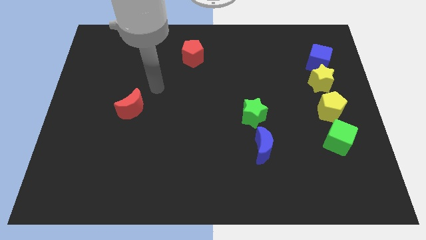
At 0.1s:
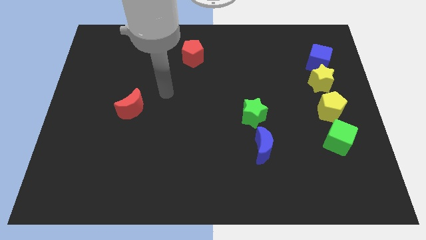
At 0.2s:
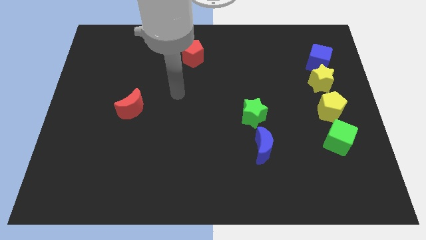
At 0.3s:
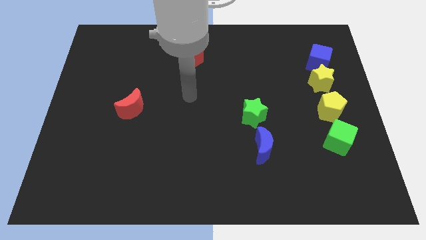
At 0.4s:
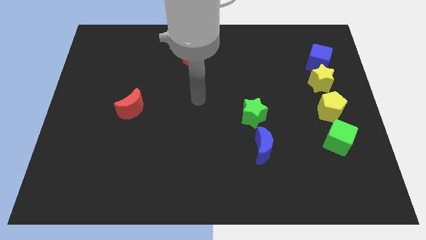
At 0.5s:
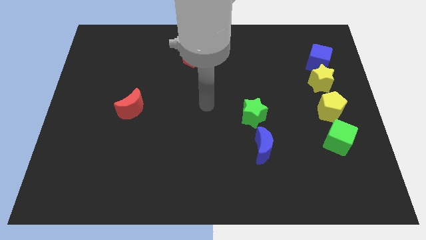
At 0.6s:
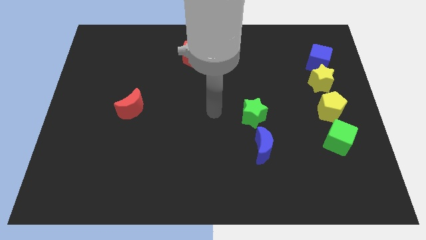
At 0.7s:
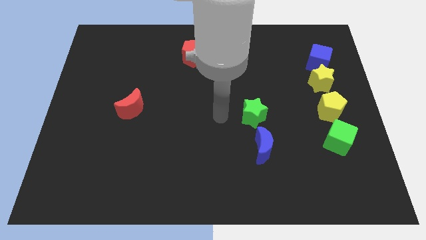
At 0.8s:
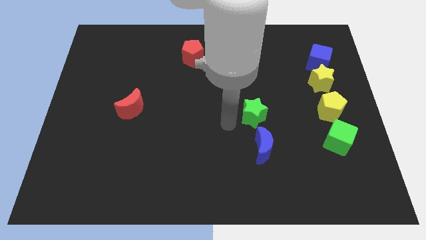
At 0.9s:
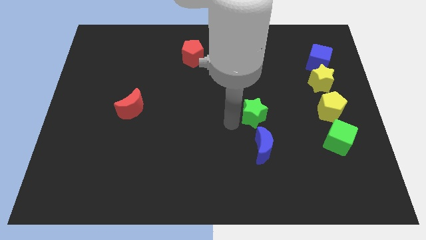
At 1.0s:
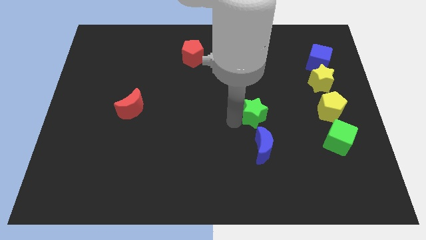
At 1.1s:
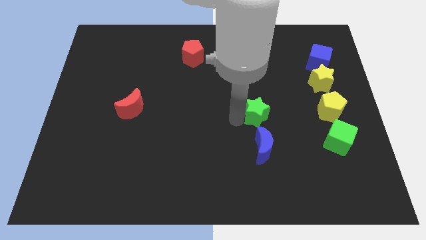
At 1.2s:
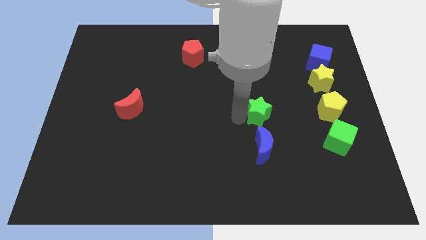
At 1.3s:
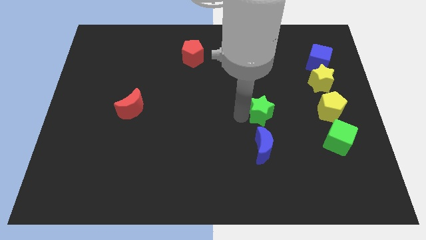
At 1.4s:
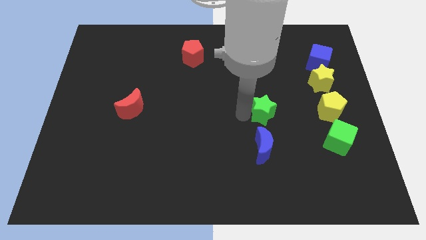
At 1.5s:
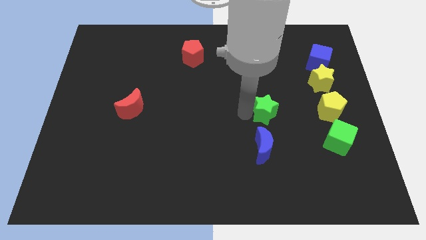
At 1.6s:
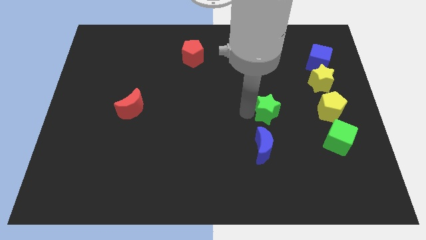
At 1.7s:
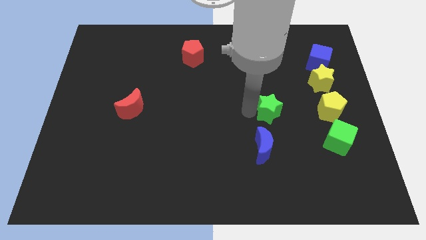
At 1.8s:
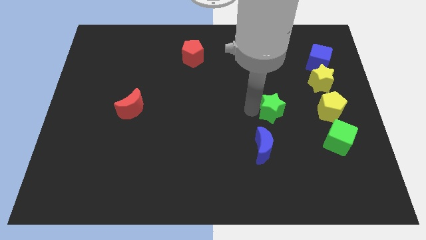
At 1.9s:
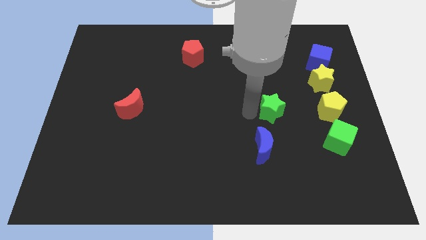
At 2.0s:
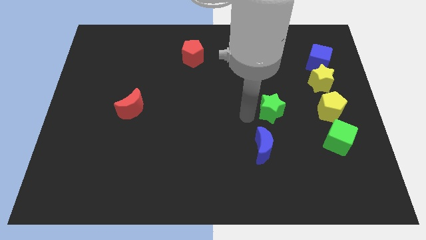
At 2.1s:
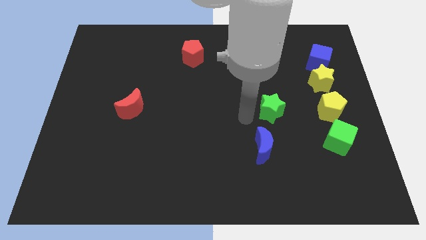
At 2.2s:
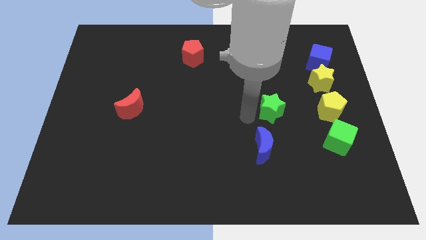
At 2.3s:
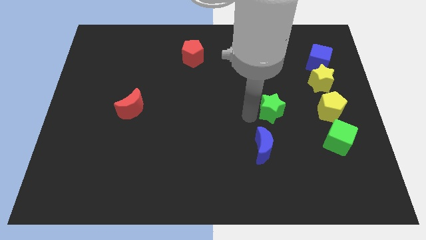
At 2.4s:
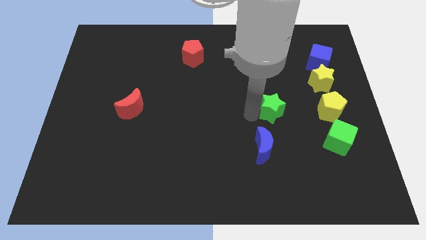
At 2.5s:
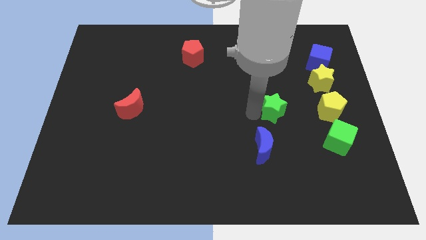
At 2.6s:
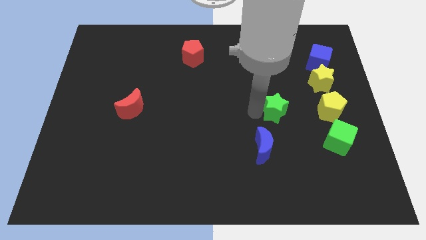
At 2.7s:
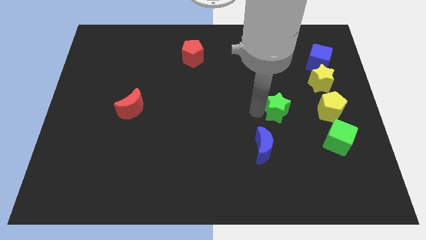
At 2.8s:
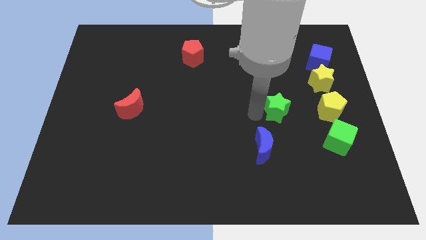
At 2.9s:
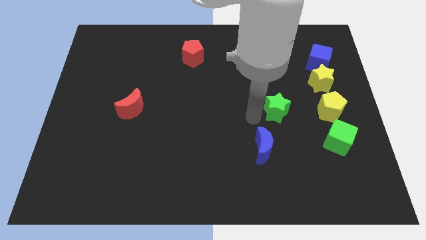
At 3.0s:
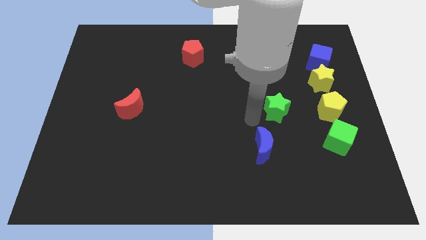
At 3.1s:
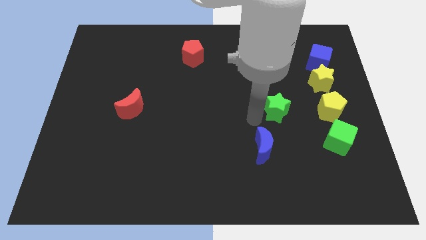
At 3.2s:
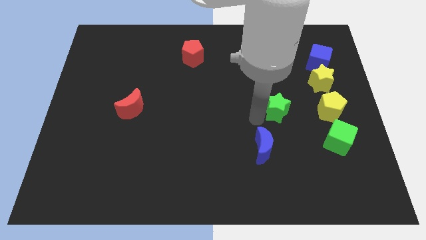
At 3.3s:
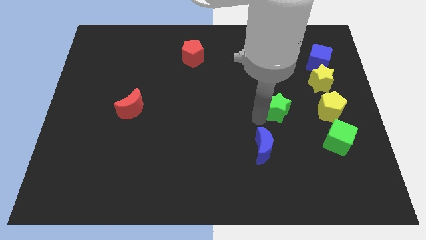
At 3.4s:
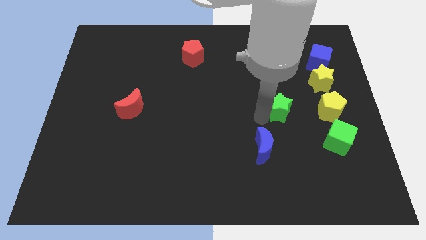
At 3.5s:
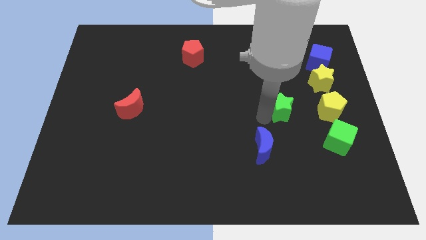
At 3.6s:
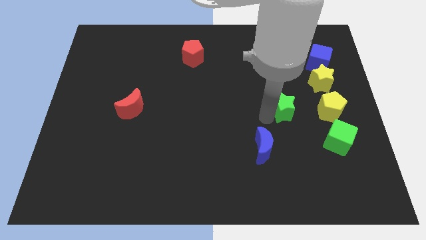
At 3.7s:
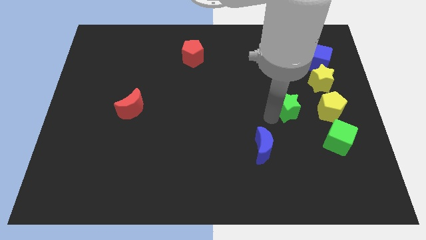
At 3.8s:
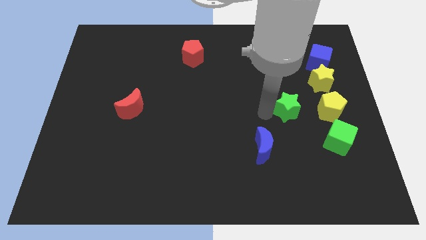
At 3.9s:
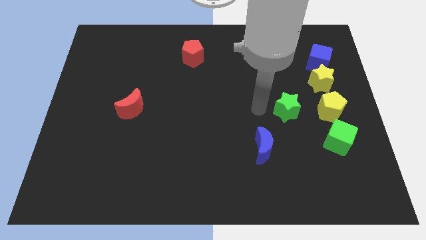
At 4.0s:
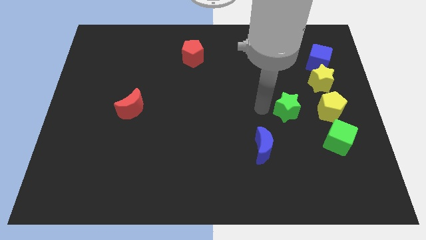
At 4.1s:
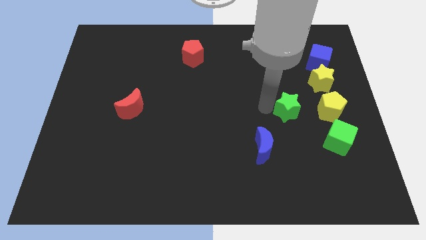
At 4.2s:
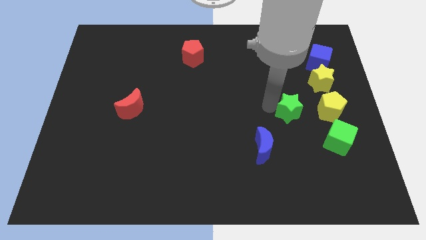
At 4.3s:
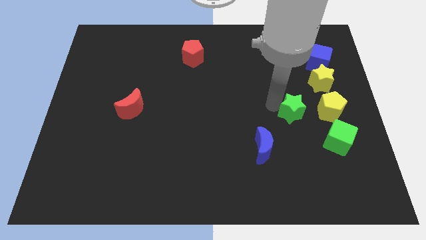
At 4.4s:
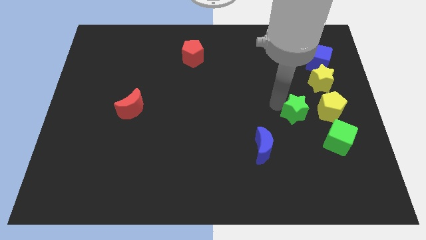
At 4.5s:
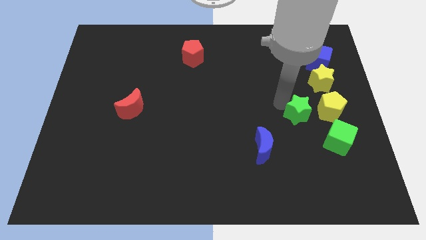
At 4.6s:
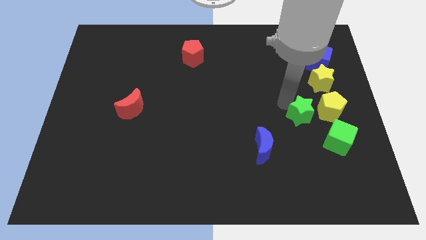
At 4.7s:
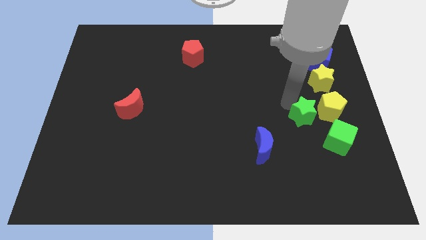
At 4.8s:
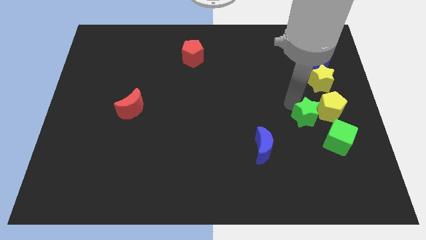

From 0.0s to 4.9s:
put the green star to the yellow pentagon

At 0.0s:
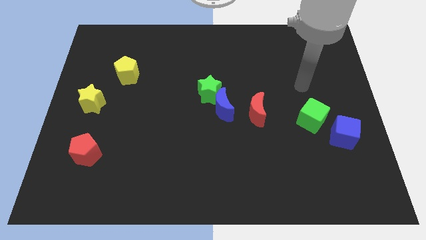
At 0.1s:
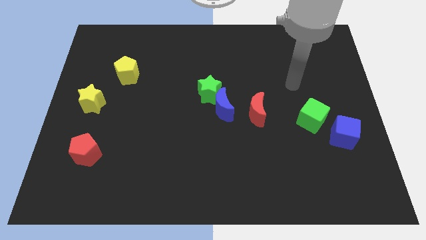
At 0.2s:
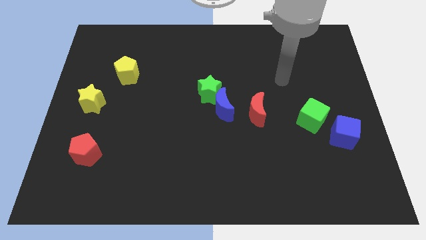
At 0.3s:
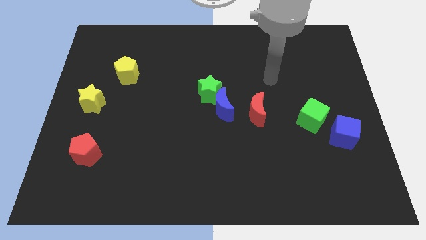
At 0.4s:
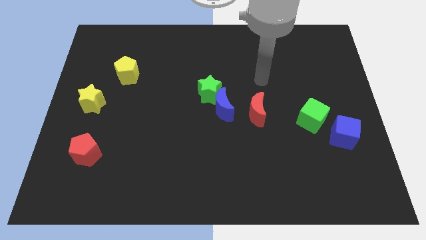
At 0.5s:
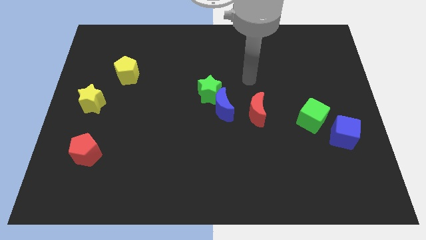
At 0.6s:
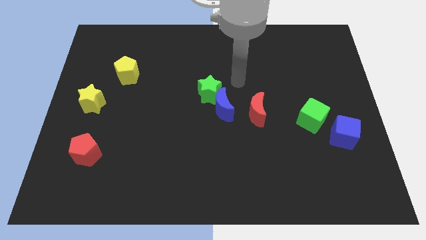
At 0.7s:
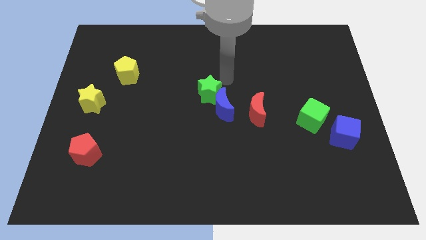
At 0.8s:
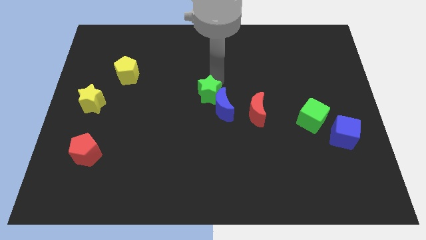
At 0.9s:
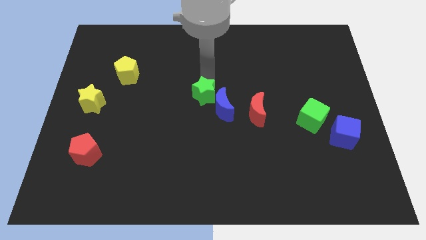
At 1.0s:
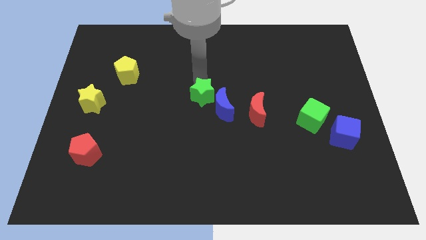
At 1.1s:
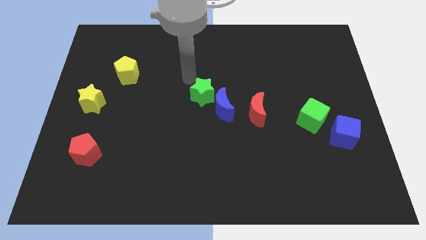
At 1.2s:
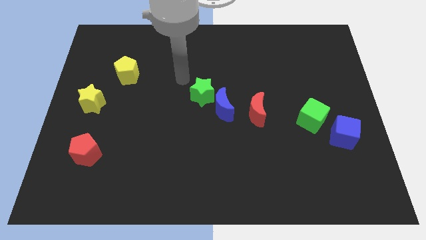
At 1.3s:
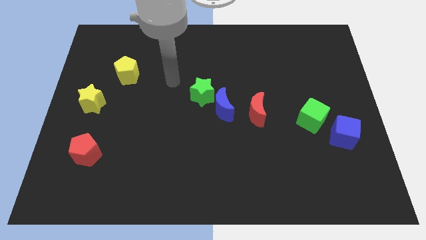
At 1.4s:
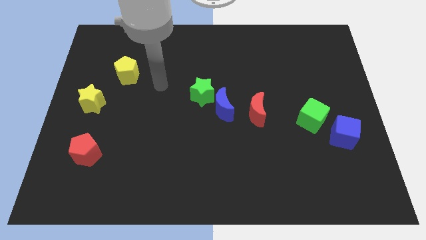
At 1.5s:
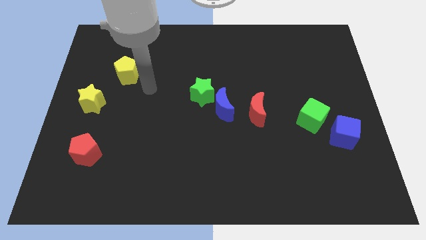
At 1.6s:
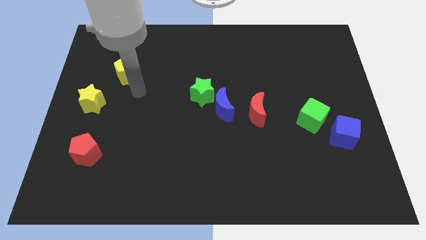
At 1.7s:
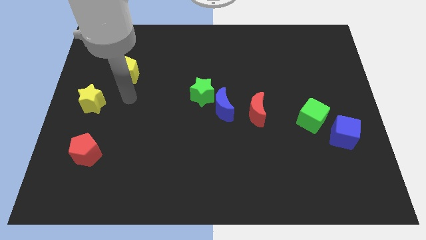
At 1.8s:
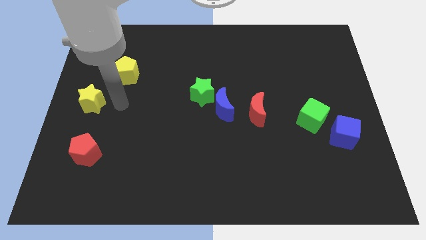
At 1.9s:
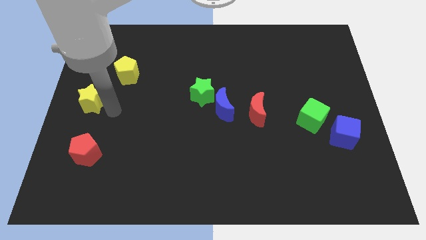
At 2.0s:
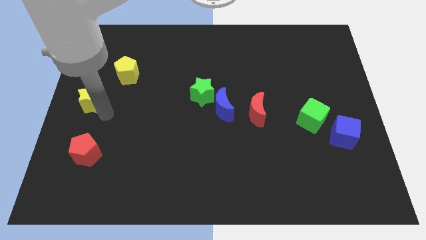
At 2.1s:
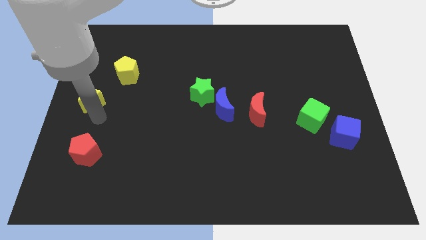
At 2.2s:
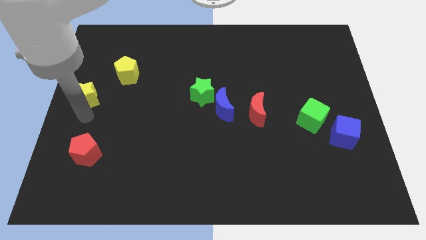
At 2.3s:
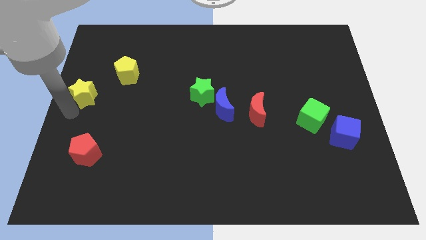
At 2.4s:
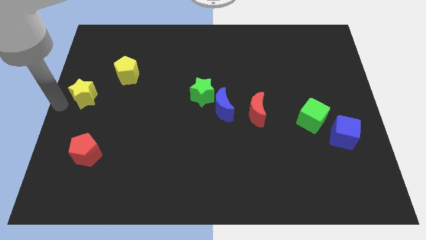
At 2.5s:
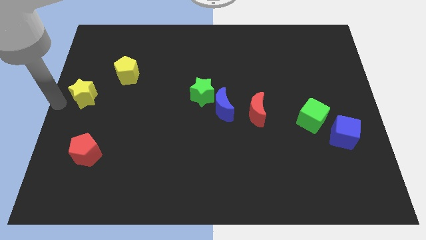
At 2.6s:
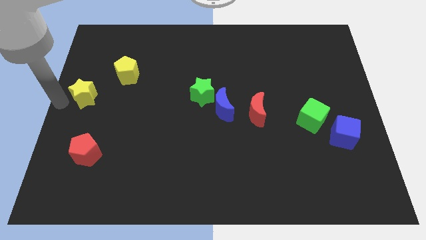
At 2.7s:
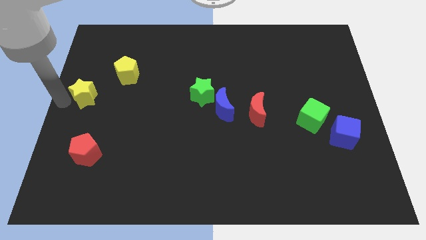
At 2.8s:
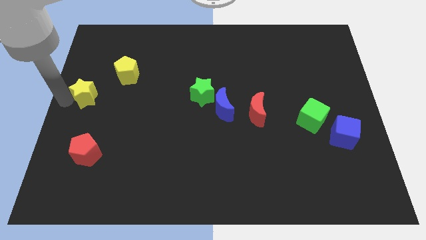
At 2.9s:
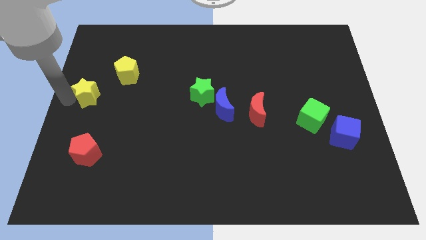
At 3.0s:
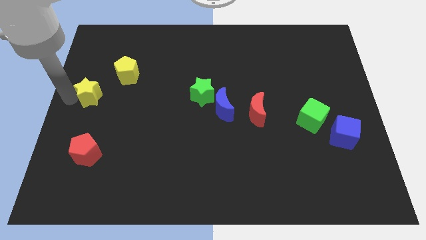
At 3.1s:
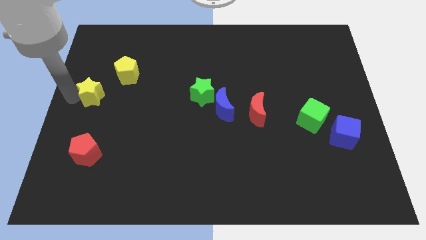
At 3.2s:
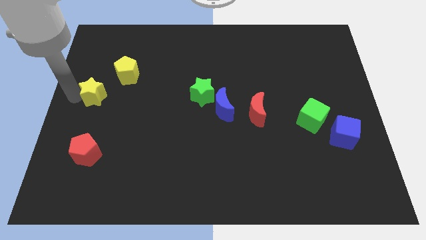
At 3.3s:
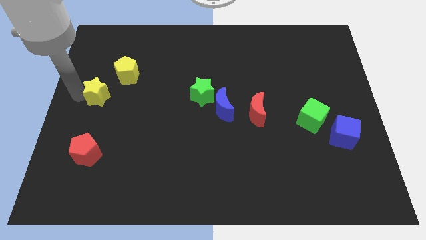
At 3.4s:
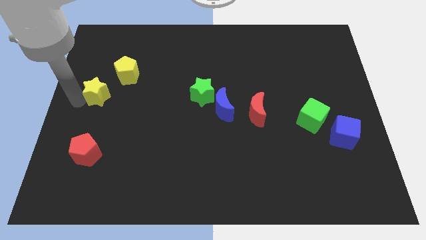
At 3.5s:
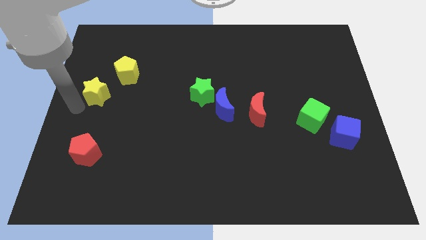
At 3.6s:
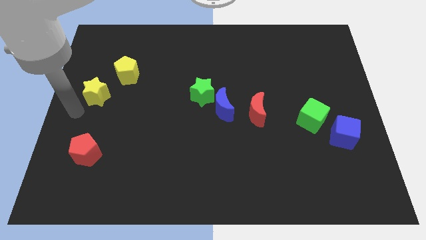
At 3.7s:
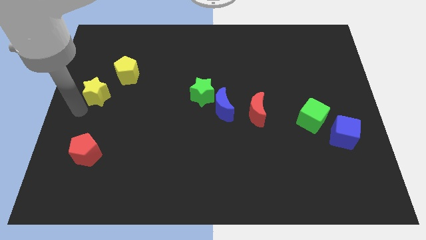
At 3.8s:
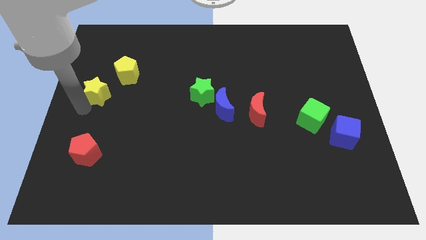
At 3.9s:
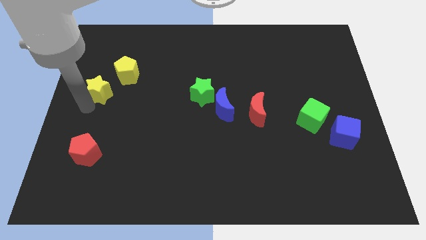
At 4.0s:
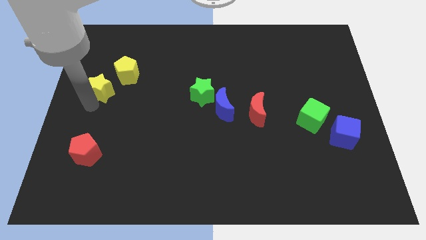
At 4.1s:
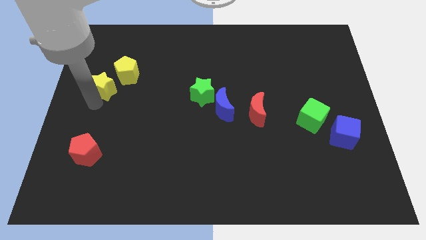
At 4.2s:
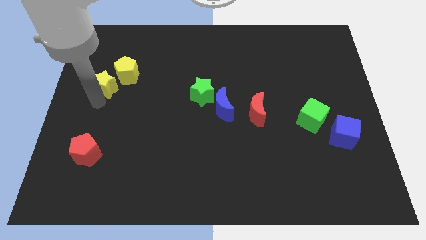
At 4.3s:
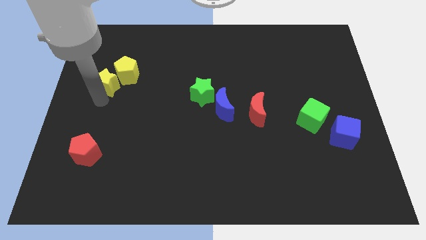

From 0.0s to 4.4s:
slide the yellow star next to the yellow pentagon
